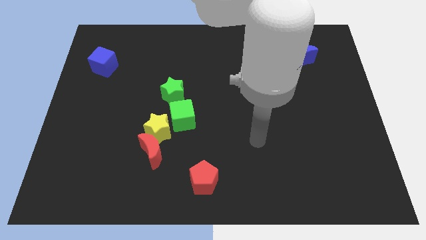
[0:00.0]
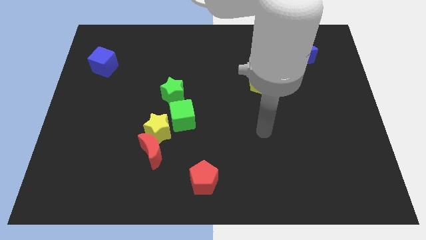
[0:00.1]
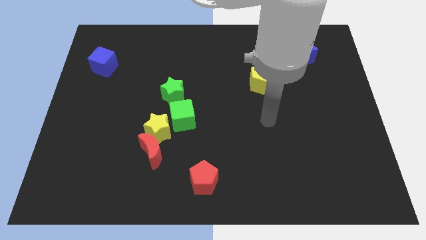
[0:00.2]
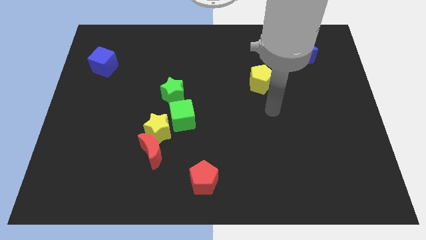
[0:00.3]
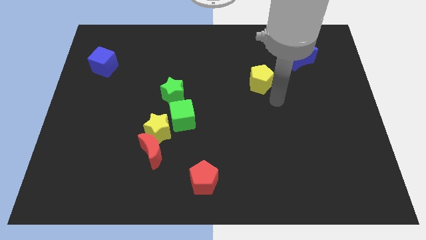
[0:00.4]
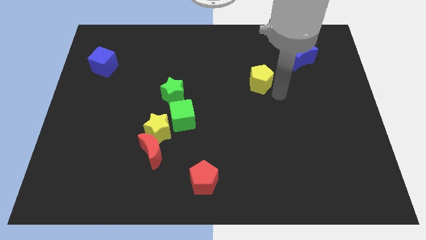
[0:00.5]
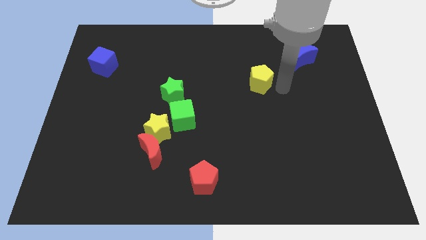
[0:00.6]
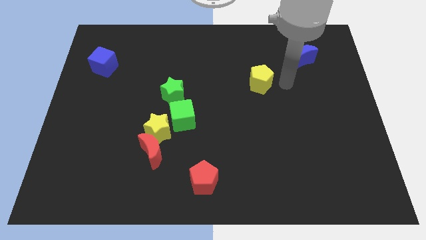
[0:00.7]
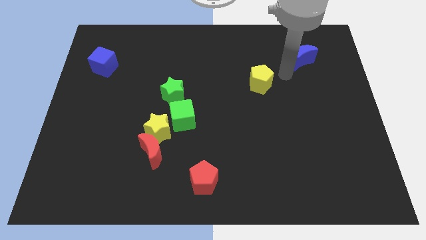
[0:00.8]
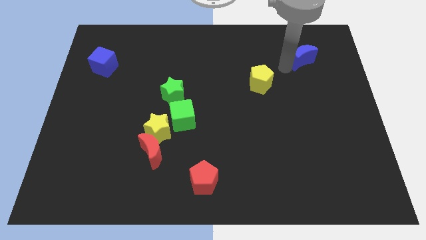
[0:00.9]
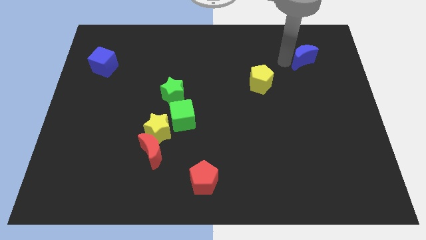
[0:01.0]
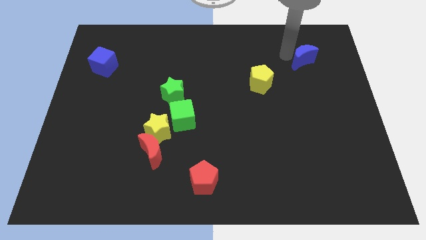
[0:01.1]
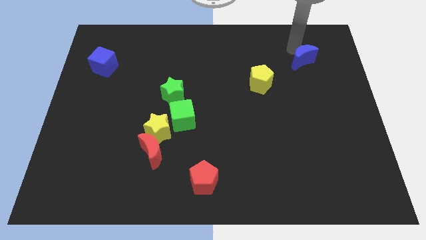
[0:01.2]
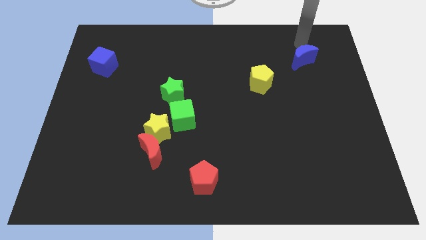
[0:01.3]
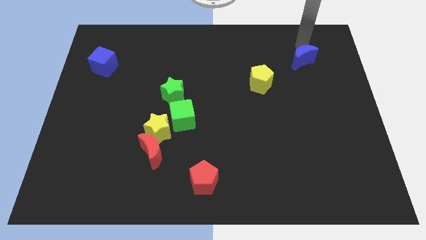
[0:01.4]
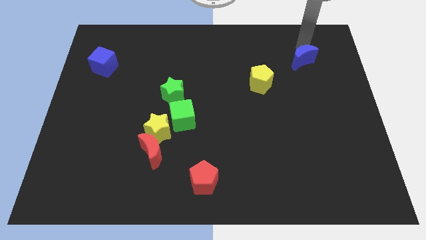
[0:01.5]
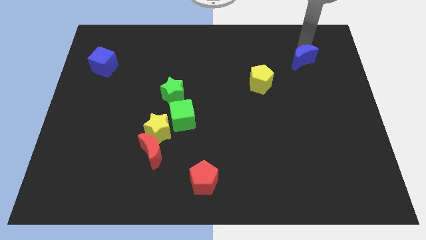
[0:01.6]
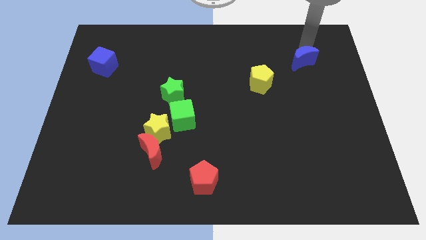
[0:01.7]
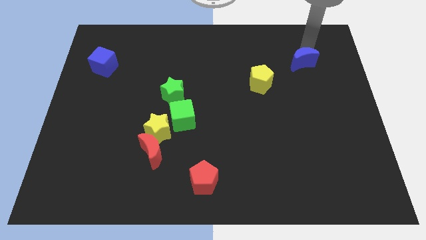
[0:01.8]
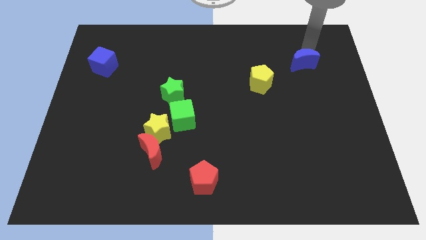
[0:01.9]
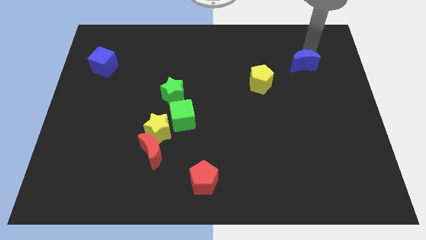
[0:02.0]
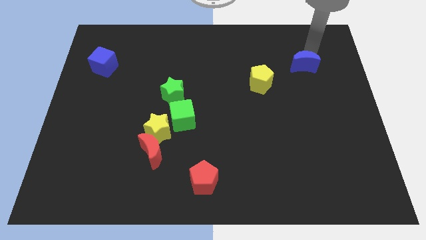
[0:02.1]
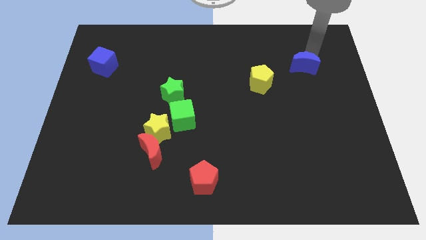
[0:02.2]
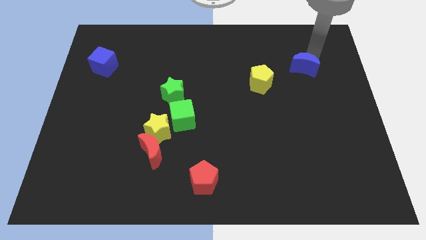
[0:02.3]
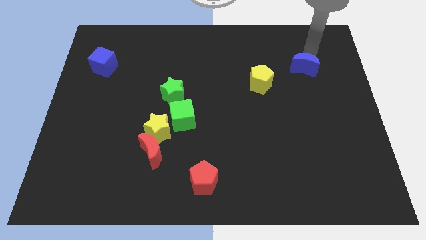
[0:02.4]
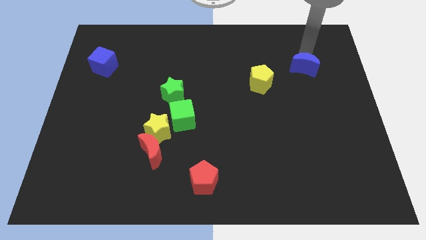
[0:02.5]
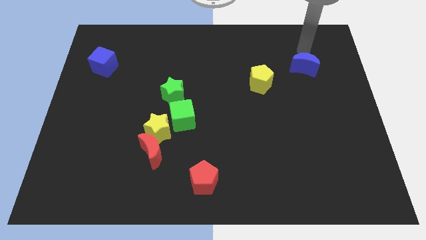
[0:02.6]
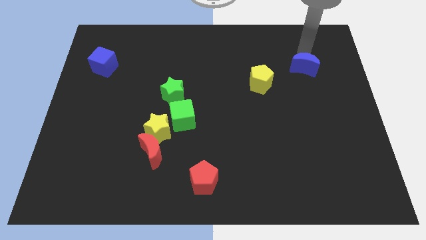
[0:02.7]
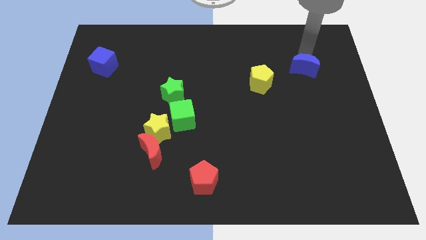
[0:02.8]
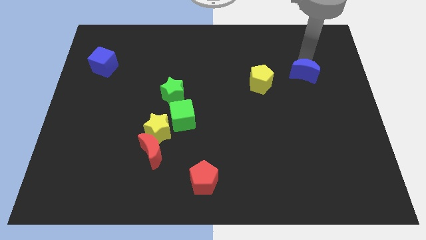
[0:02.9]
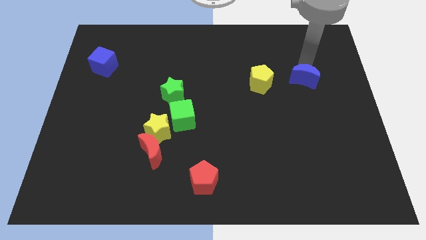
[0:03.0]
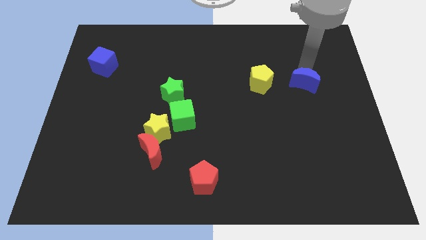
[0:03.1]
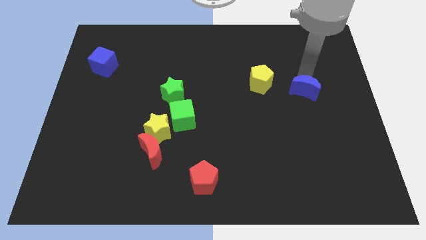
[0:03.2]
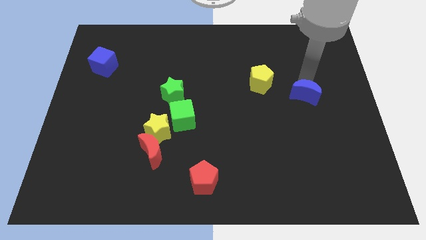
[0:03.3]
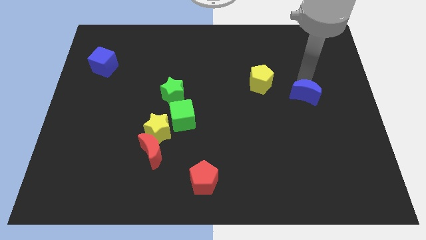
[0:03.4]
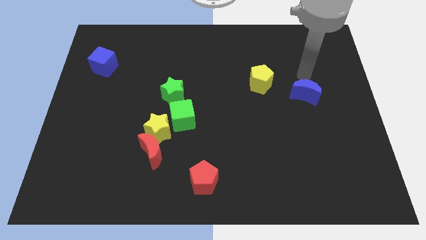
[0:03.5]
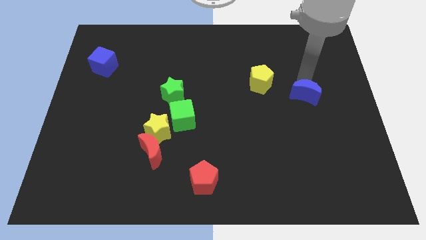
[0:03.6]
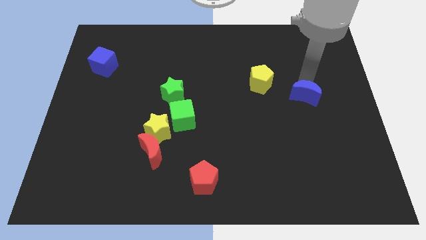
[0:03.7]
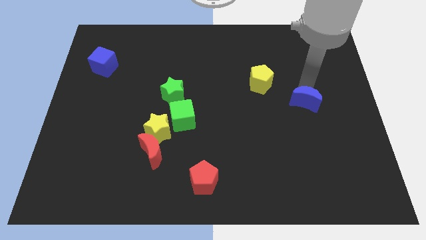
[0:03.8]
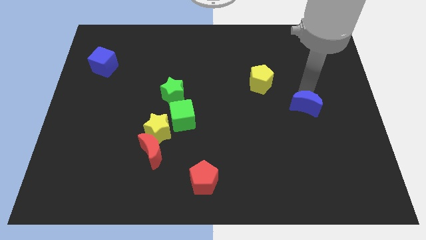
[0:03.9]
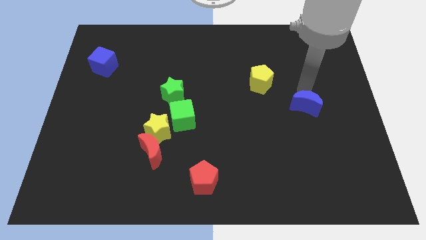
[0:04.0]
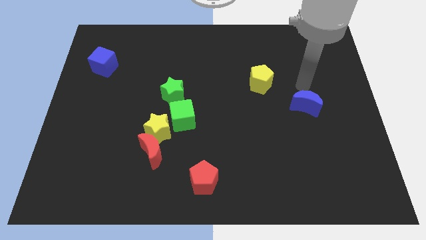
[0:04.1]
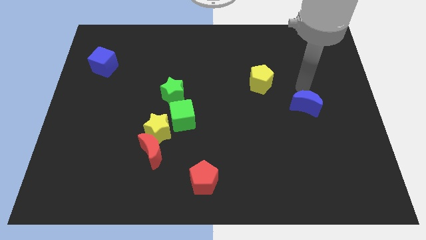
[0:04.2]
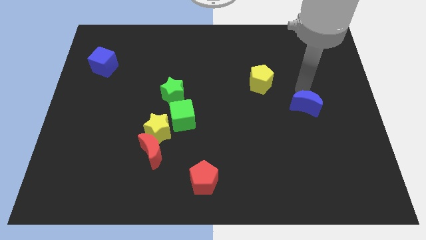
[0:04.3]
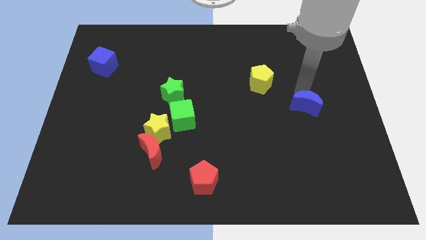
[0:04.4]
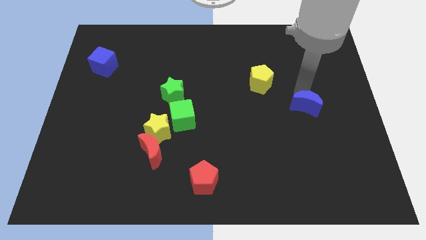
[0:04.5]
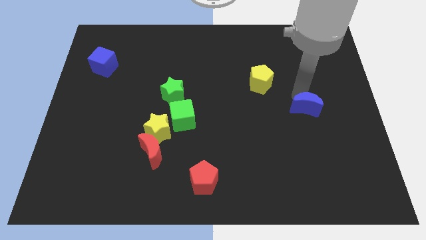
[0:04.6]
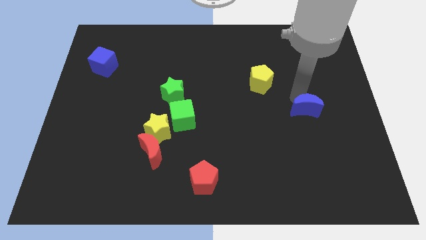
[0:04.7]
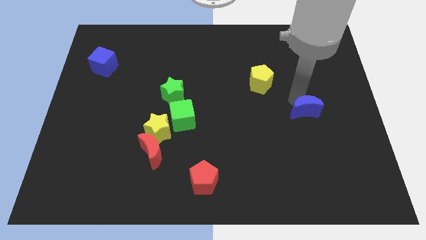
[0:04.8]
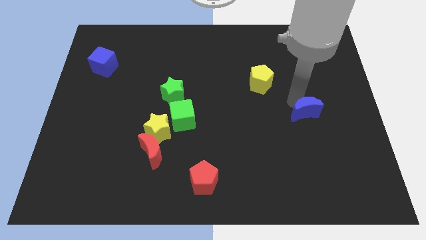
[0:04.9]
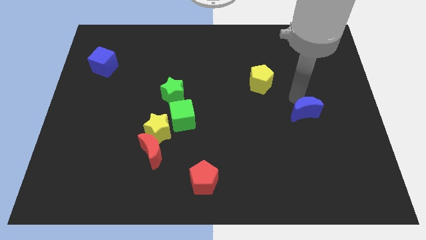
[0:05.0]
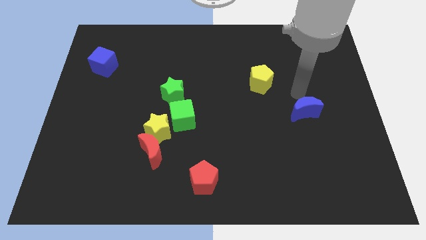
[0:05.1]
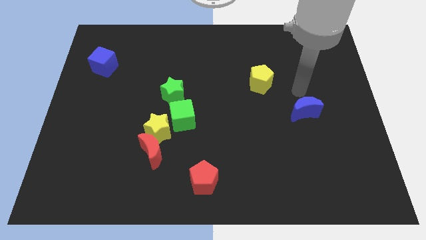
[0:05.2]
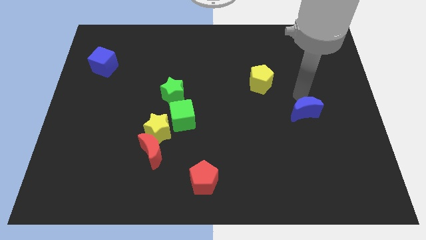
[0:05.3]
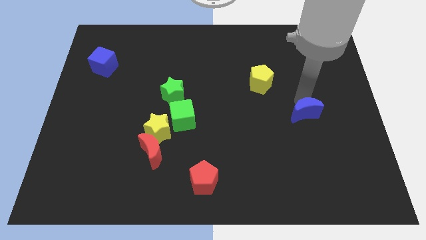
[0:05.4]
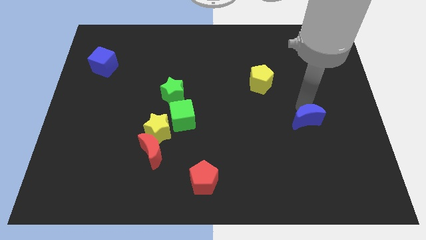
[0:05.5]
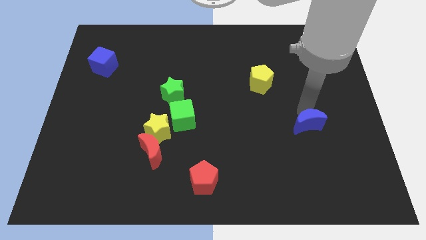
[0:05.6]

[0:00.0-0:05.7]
move the blue moon downwards

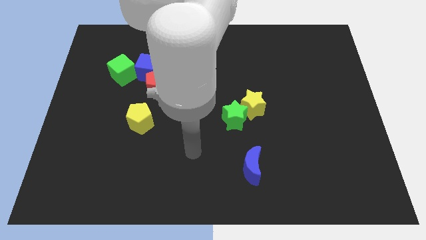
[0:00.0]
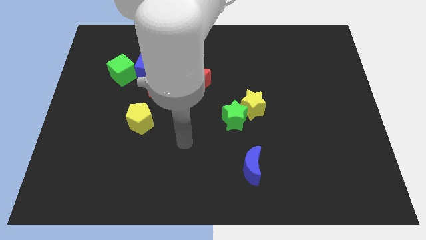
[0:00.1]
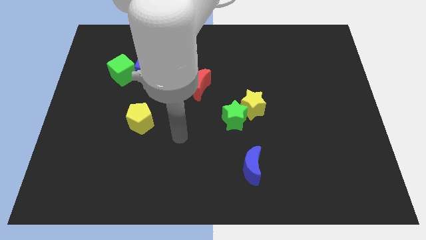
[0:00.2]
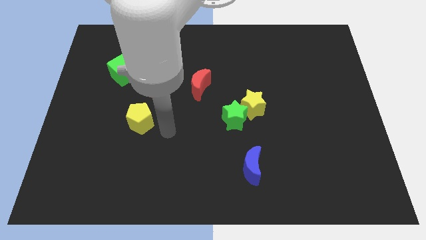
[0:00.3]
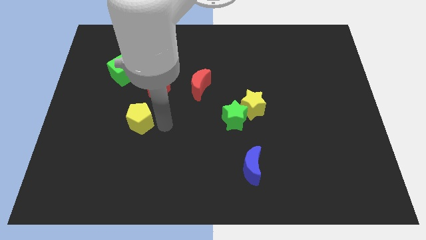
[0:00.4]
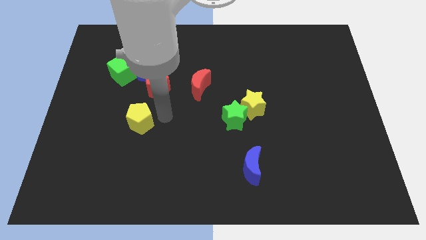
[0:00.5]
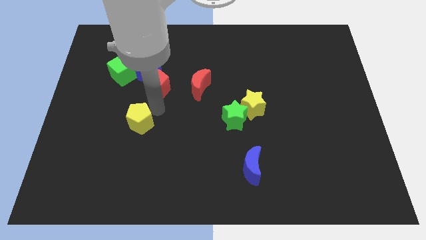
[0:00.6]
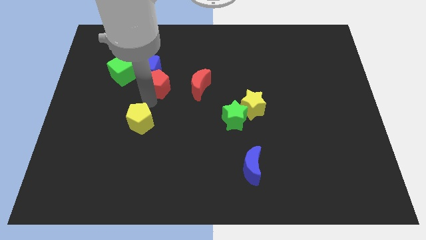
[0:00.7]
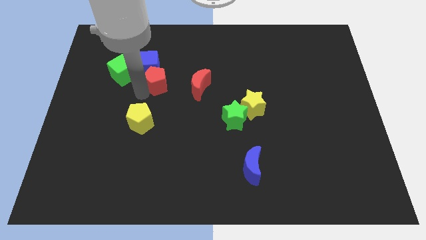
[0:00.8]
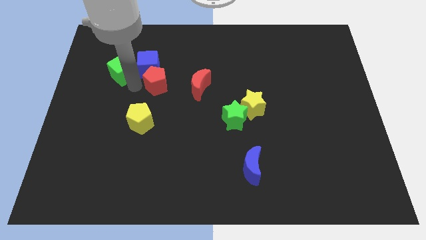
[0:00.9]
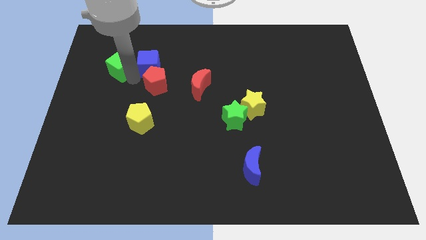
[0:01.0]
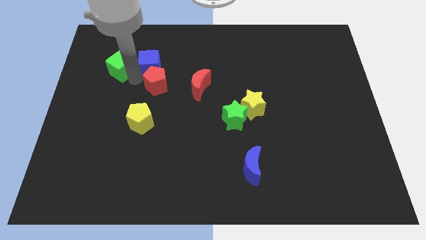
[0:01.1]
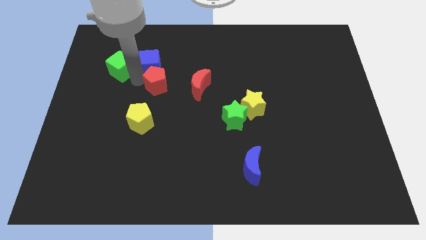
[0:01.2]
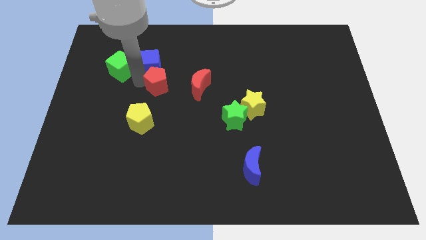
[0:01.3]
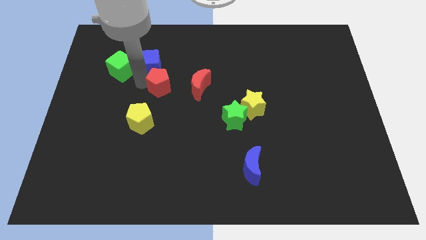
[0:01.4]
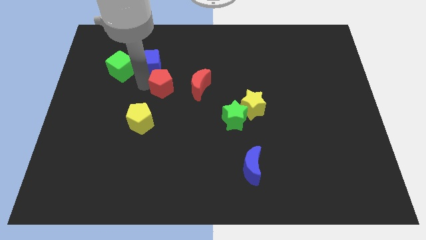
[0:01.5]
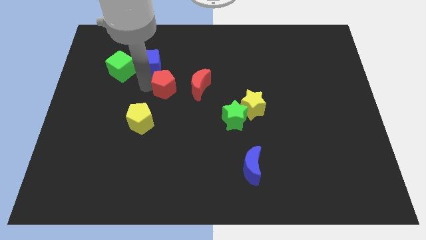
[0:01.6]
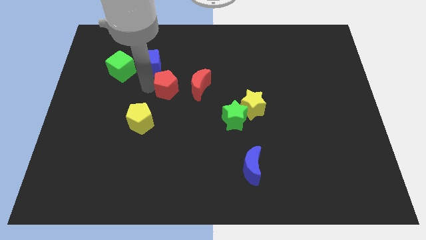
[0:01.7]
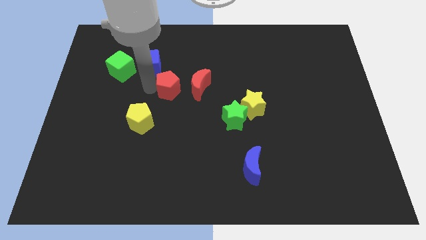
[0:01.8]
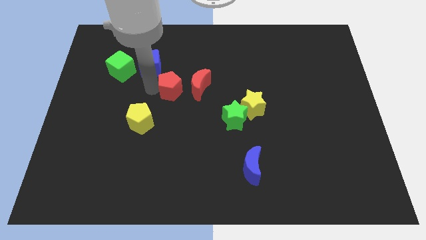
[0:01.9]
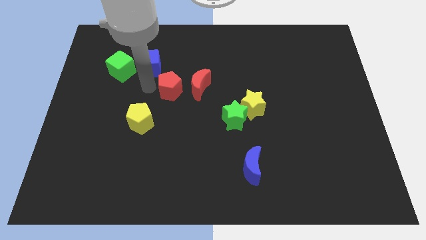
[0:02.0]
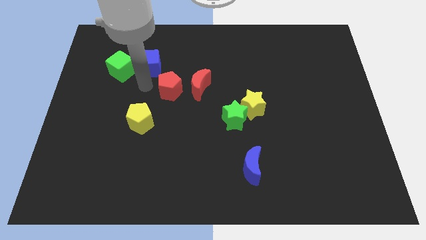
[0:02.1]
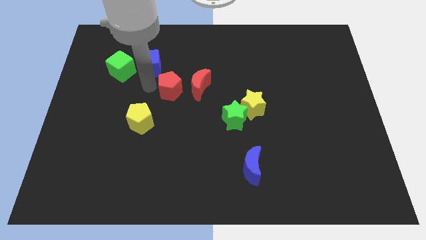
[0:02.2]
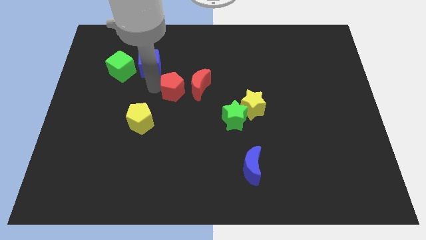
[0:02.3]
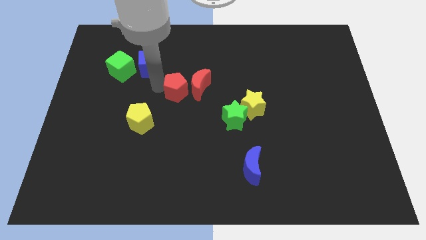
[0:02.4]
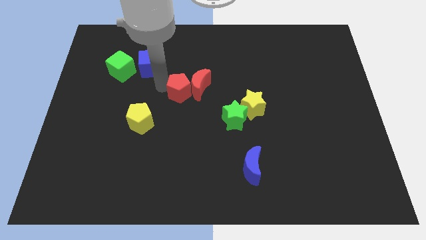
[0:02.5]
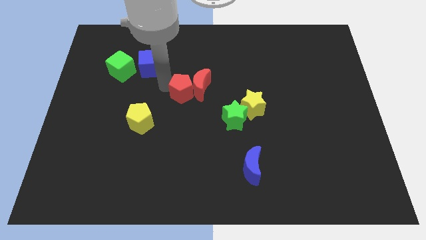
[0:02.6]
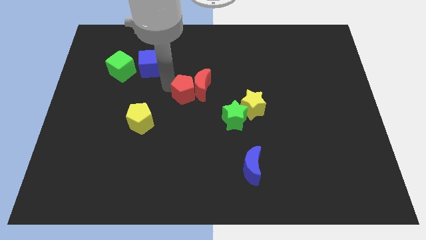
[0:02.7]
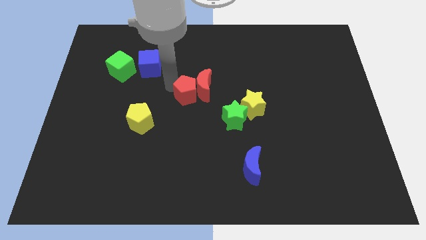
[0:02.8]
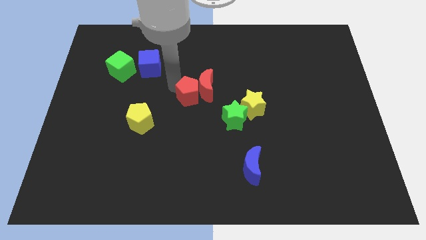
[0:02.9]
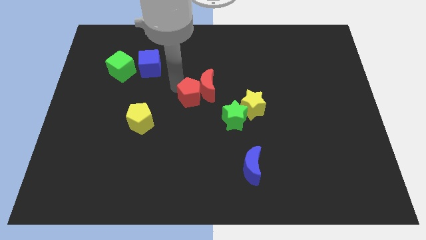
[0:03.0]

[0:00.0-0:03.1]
move the red pentagon downwards and right a bit
